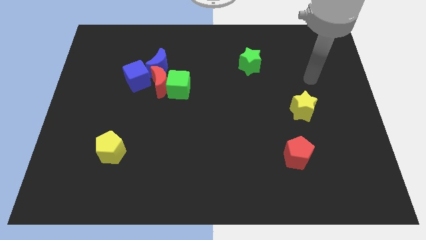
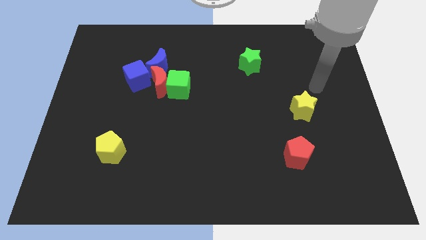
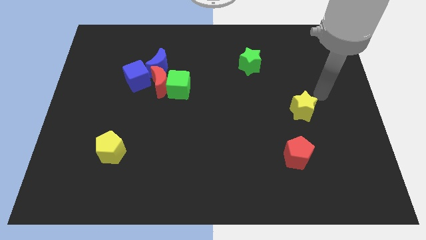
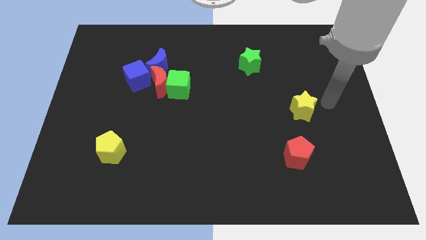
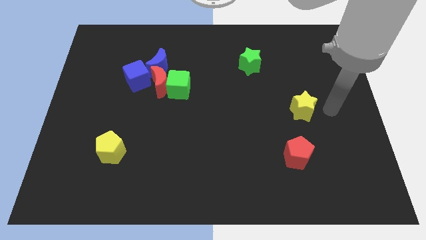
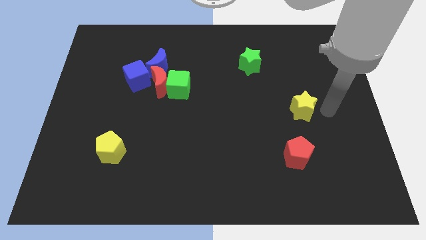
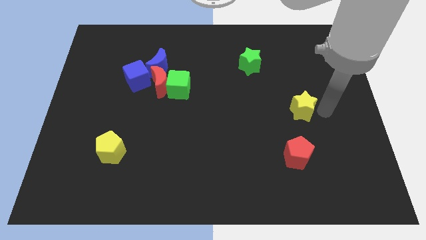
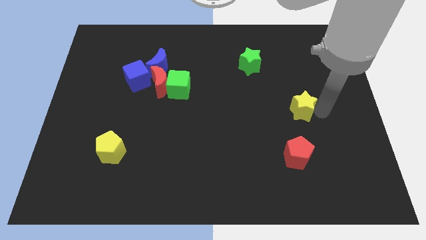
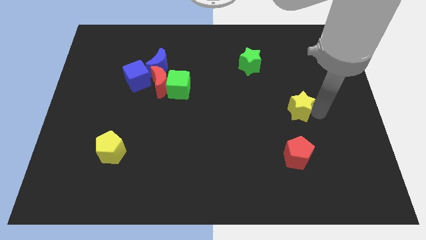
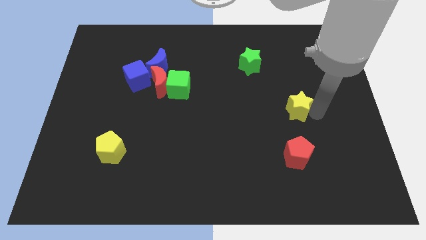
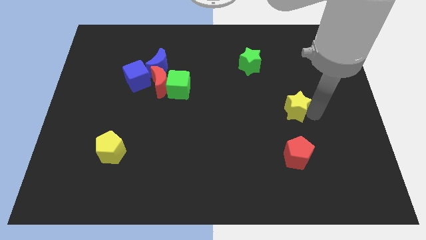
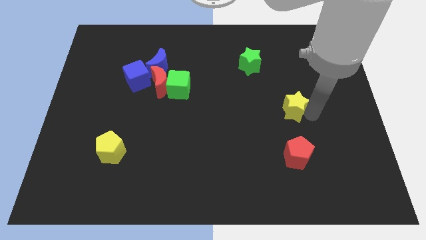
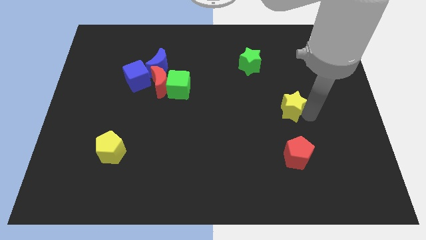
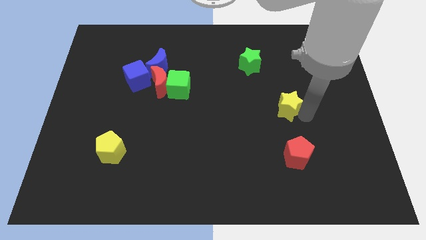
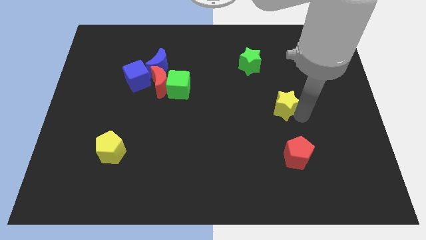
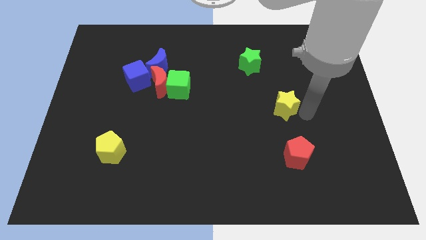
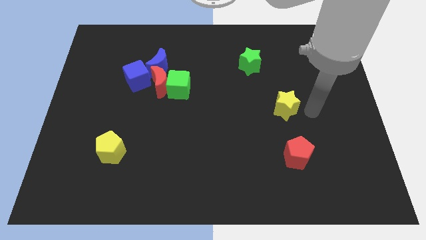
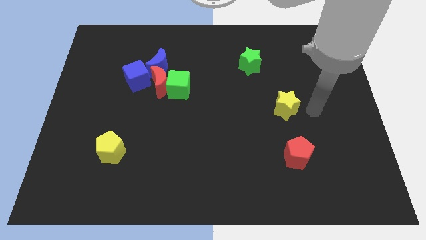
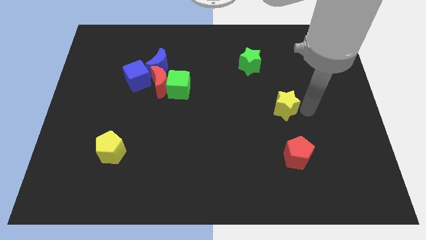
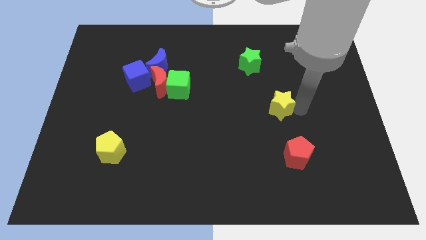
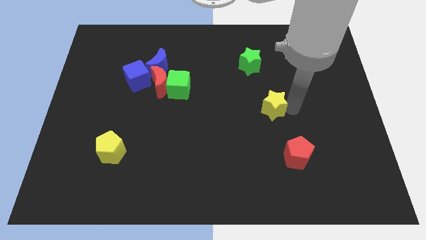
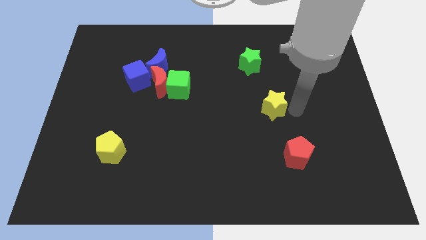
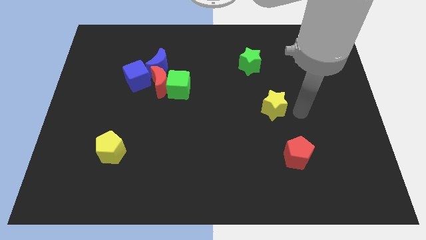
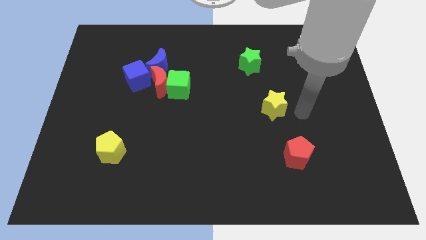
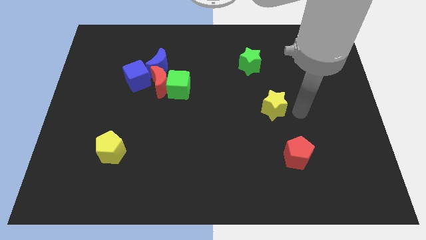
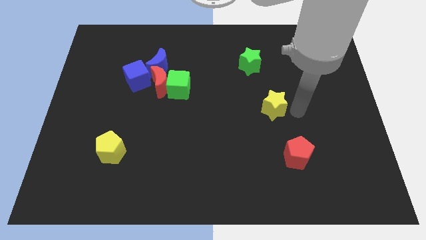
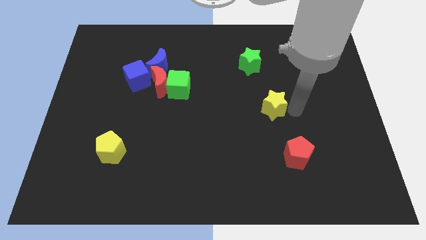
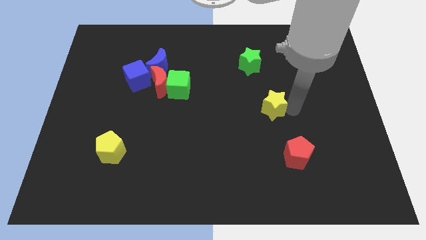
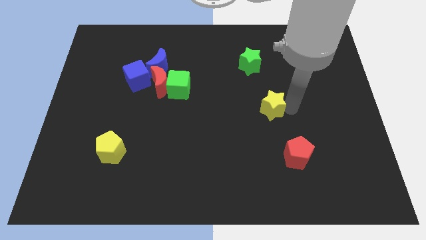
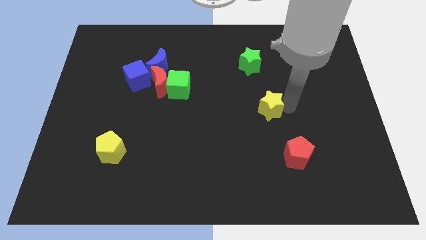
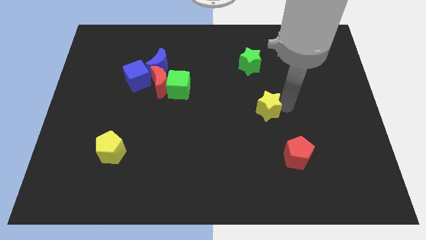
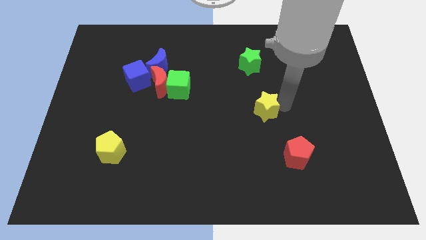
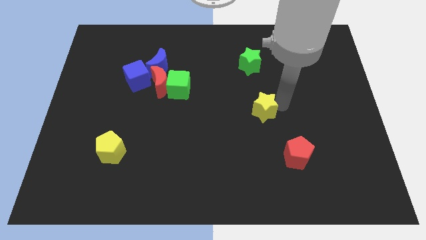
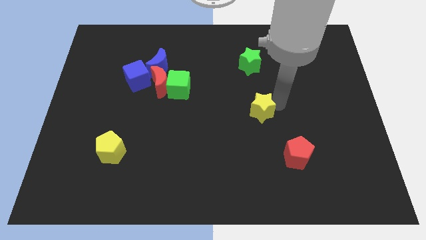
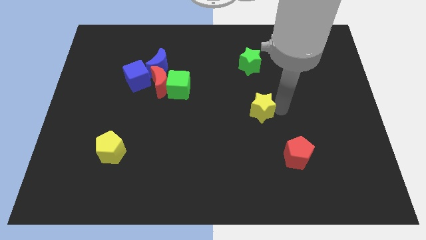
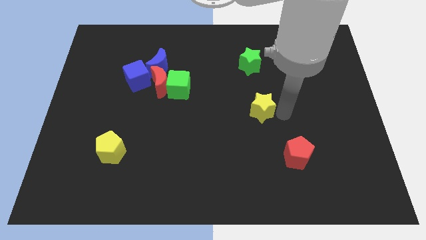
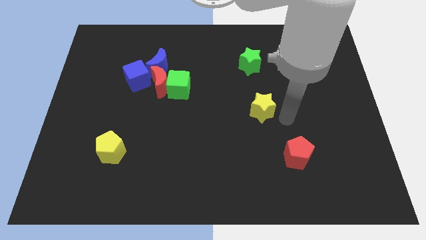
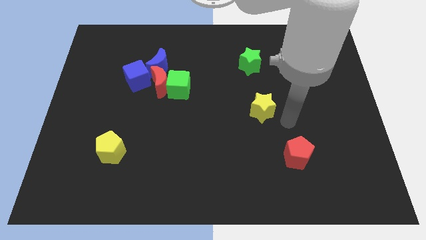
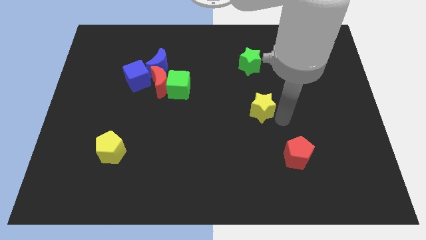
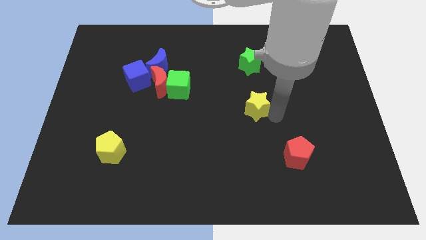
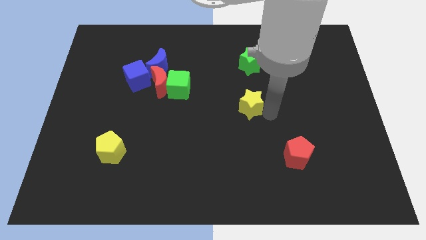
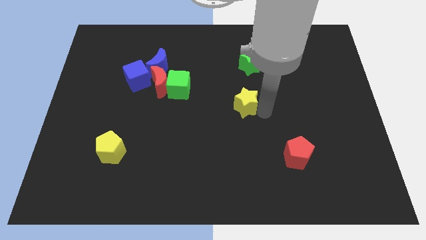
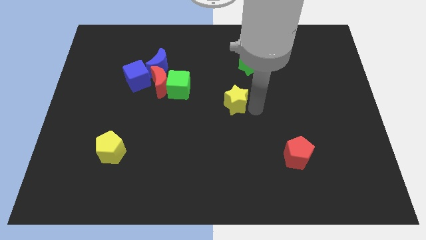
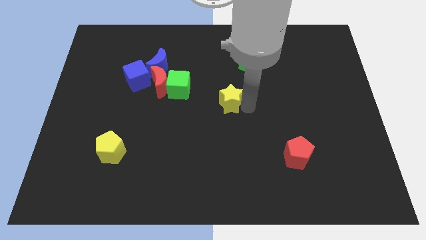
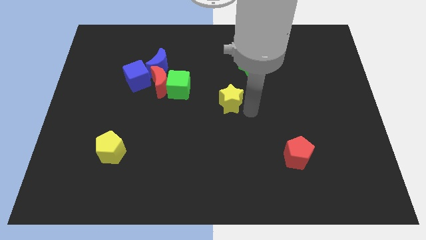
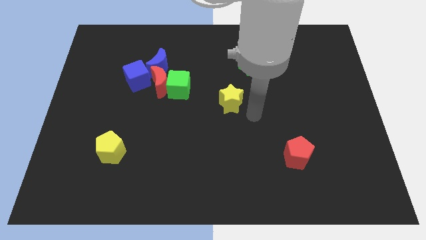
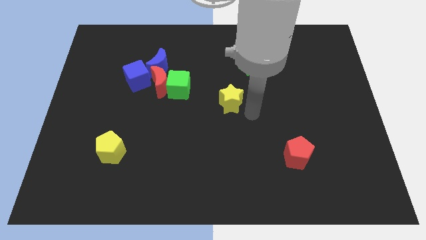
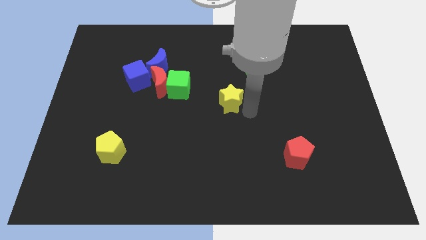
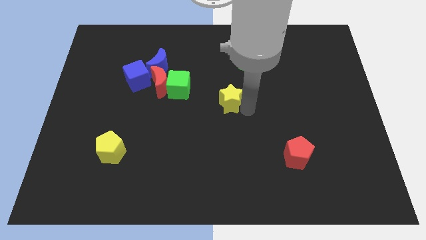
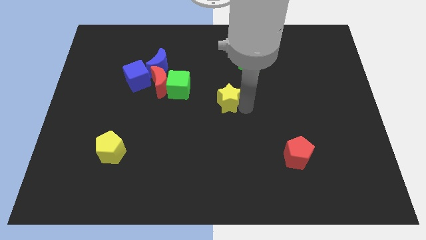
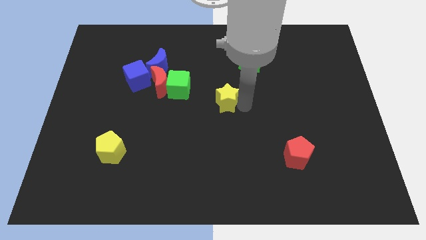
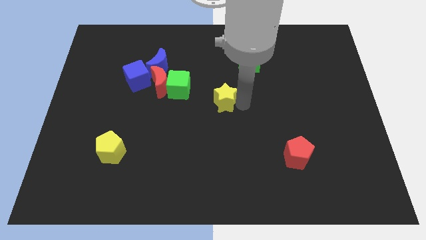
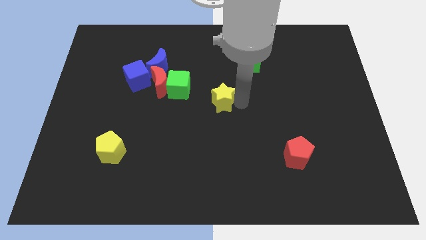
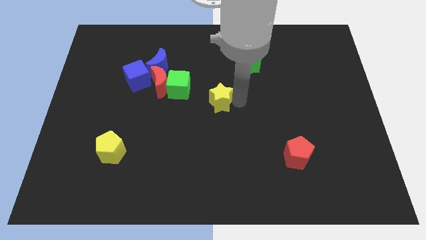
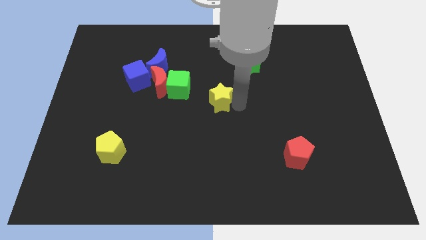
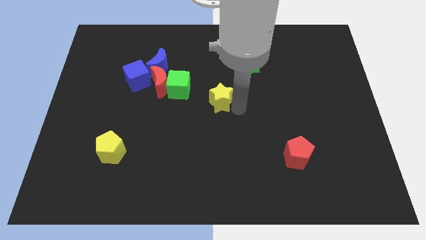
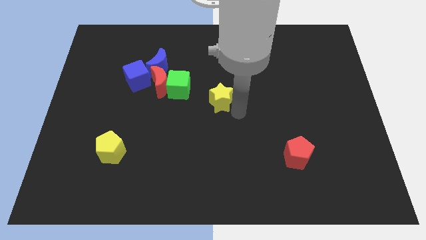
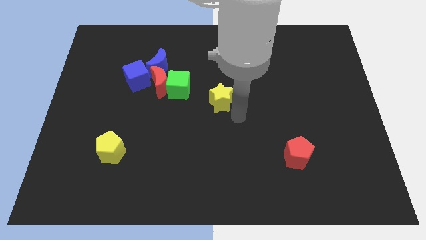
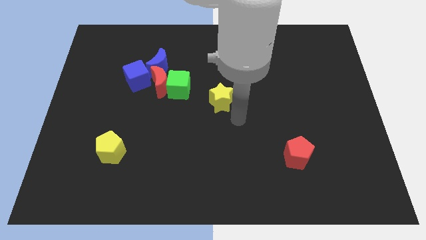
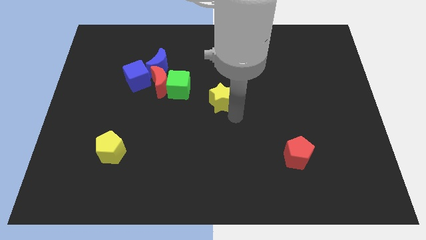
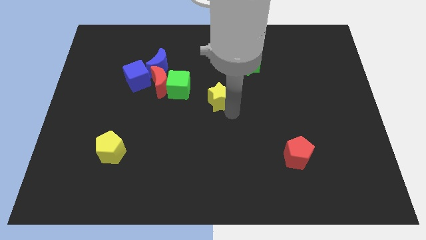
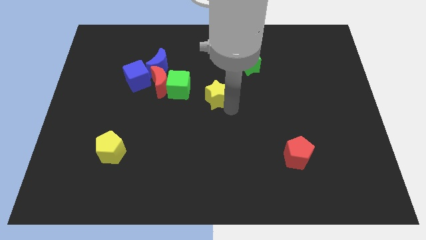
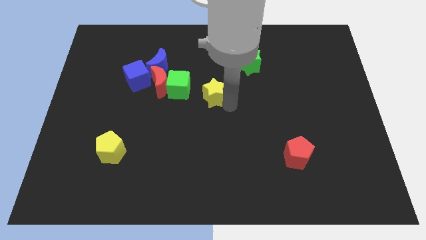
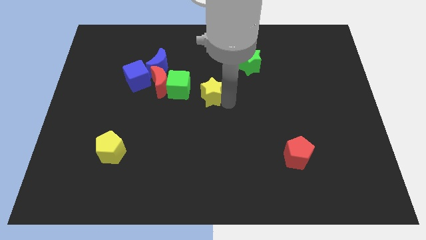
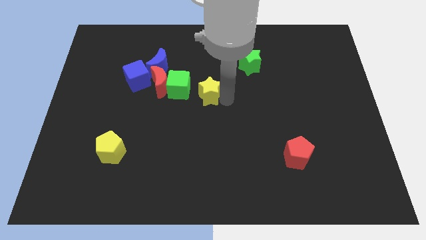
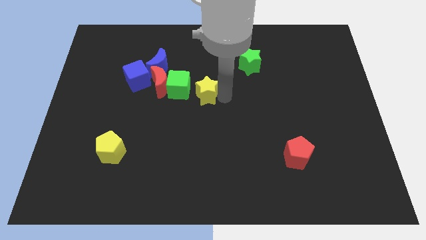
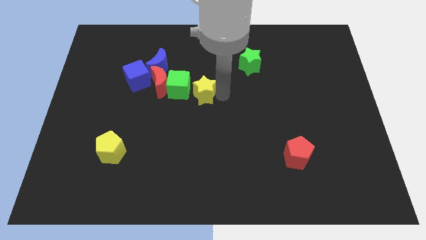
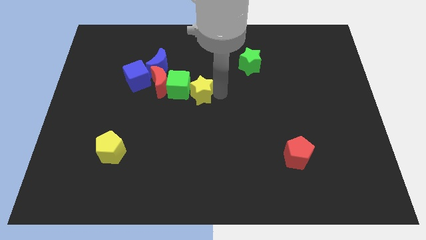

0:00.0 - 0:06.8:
slide the yellow star towards the green cube
